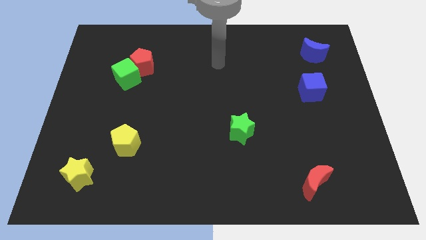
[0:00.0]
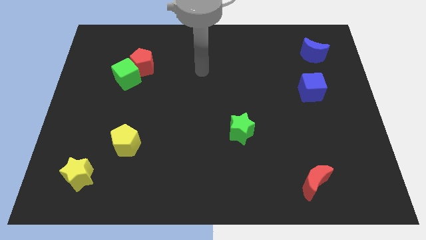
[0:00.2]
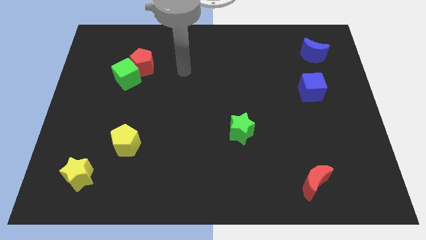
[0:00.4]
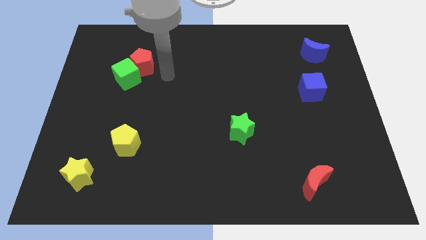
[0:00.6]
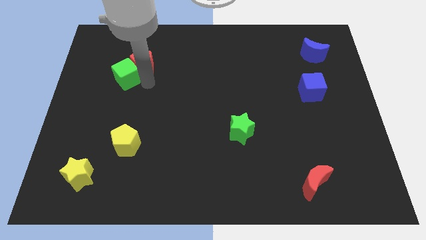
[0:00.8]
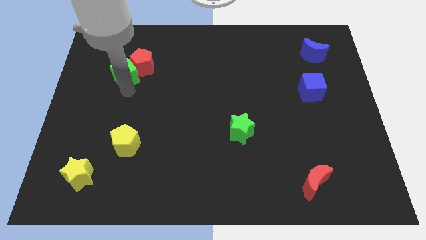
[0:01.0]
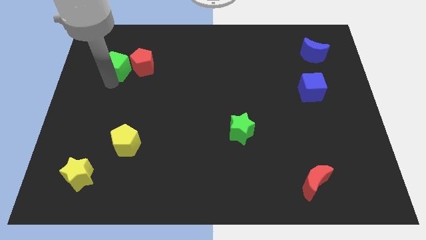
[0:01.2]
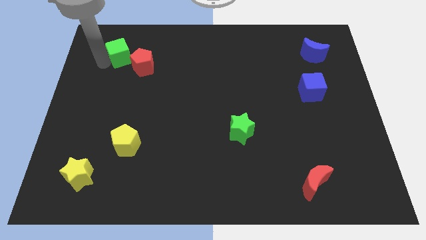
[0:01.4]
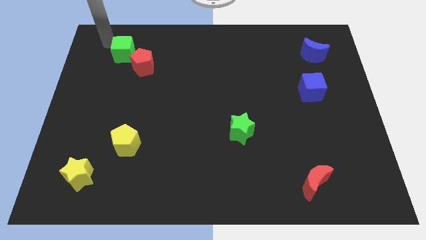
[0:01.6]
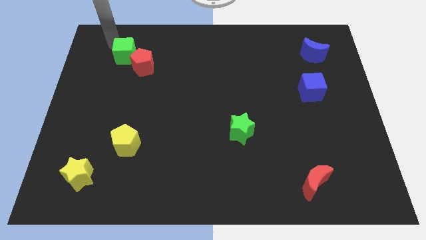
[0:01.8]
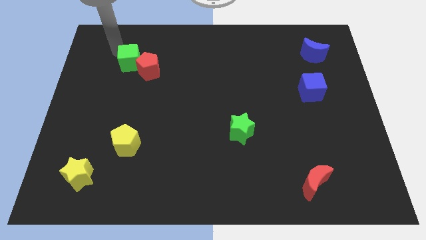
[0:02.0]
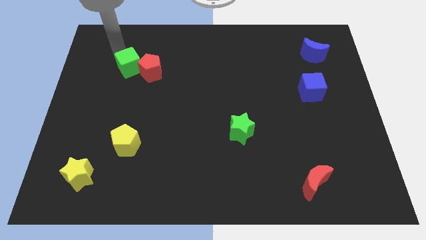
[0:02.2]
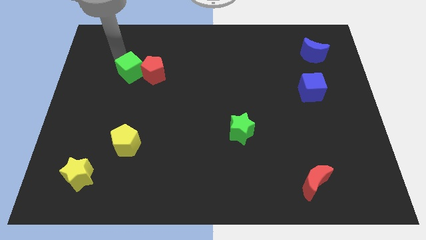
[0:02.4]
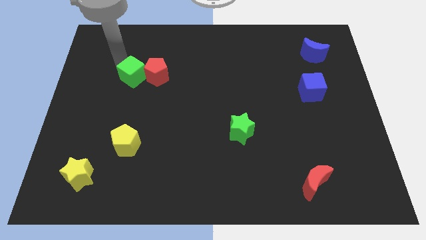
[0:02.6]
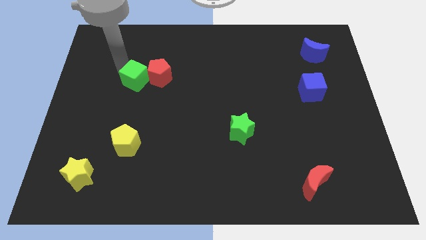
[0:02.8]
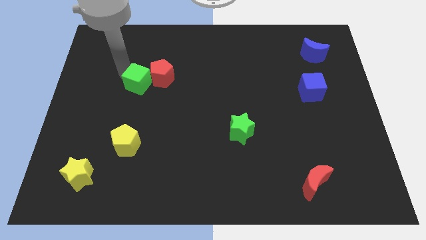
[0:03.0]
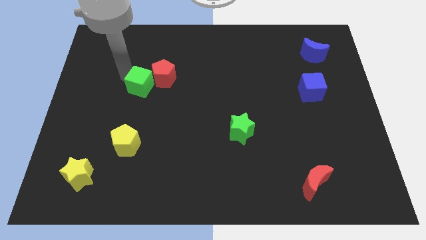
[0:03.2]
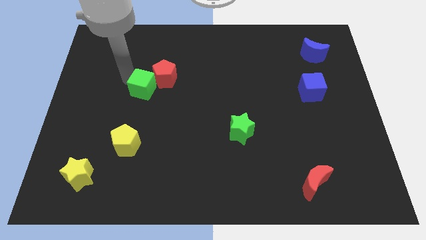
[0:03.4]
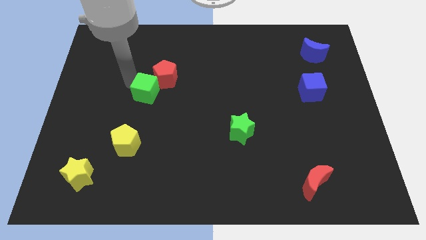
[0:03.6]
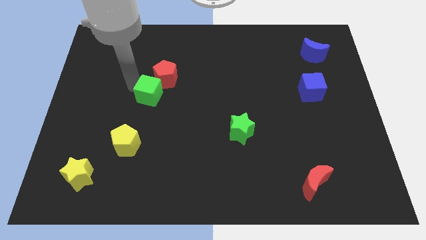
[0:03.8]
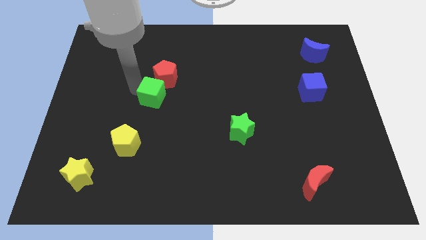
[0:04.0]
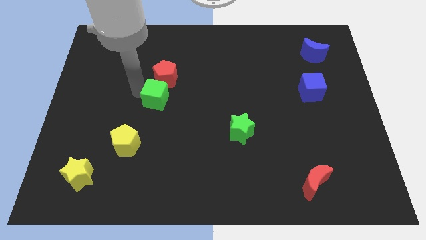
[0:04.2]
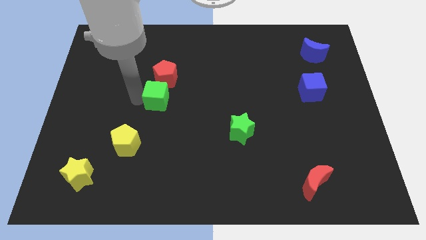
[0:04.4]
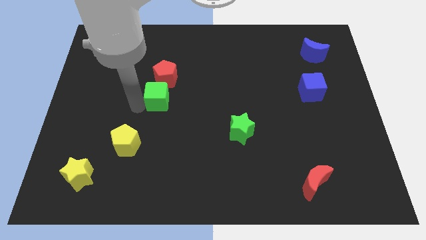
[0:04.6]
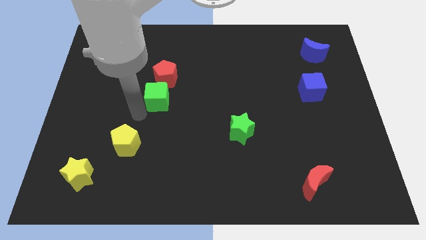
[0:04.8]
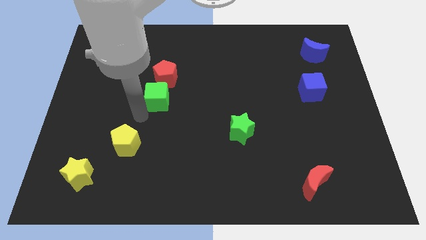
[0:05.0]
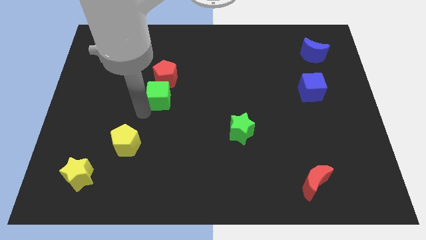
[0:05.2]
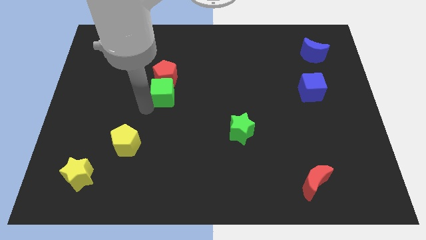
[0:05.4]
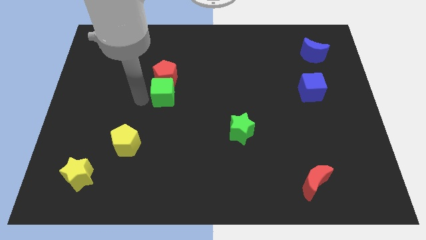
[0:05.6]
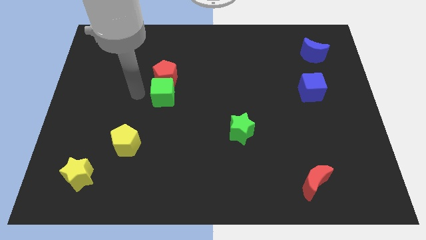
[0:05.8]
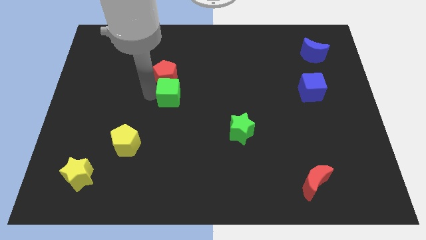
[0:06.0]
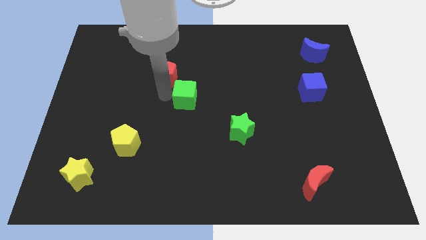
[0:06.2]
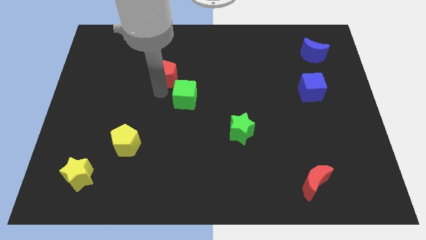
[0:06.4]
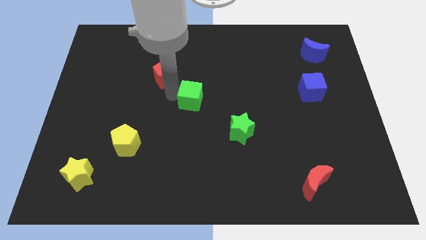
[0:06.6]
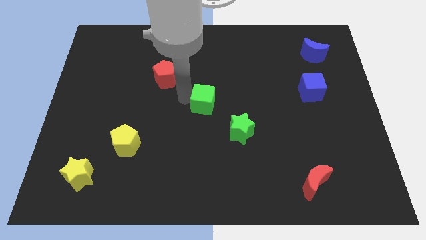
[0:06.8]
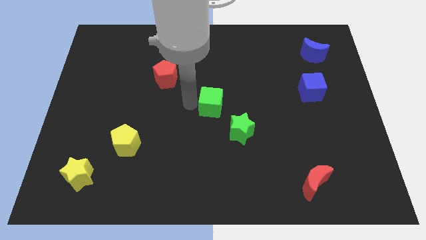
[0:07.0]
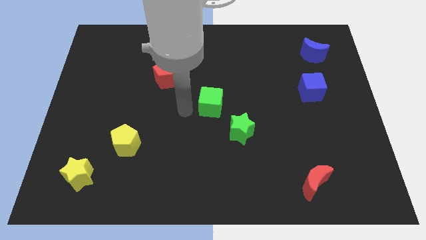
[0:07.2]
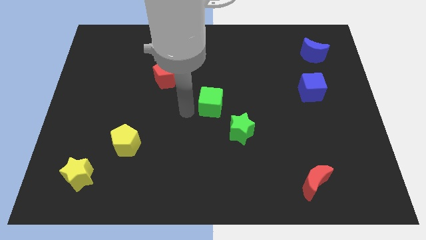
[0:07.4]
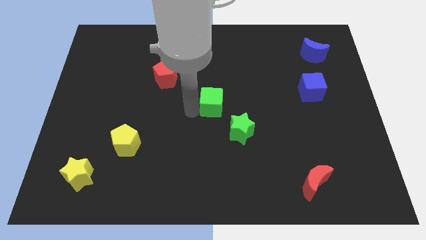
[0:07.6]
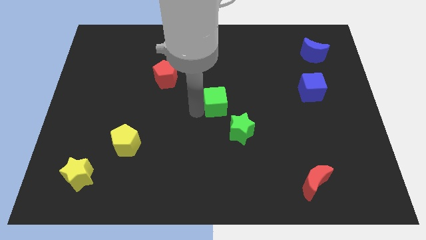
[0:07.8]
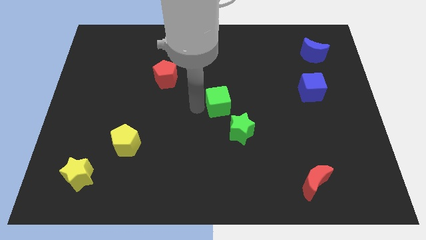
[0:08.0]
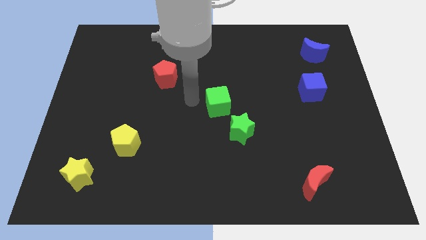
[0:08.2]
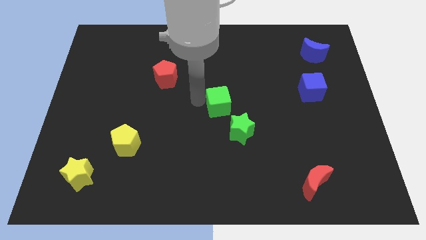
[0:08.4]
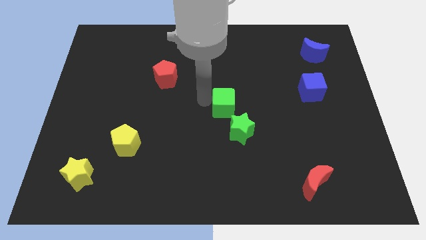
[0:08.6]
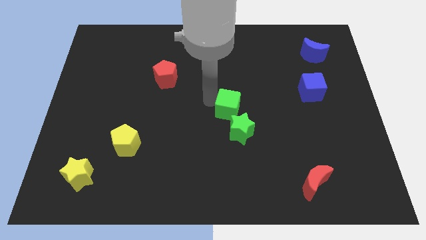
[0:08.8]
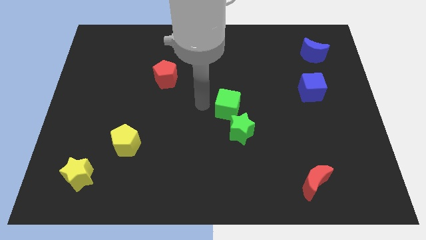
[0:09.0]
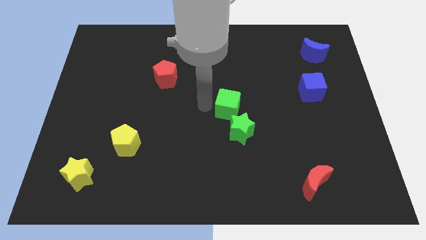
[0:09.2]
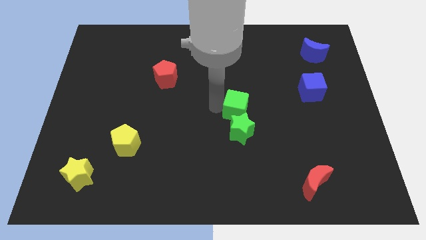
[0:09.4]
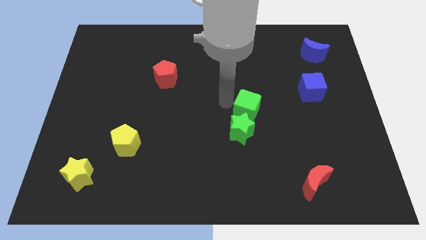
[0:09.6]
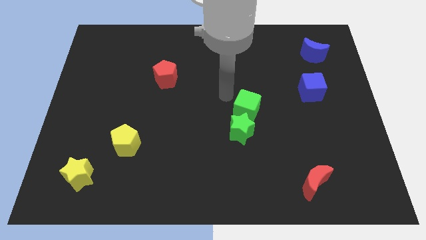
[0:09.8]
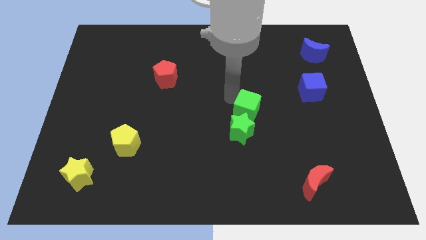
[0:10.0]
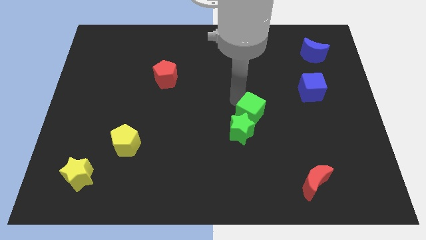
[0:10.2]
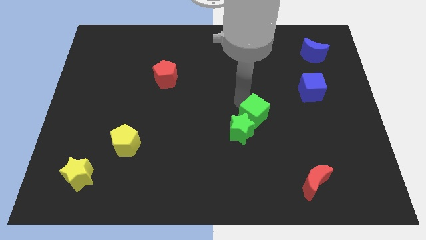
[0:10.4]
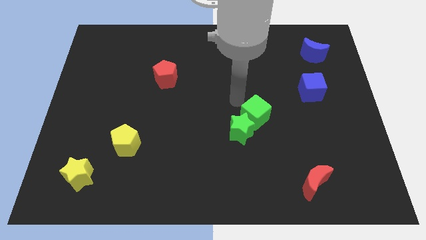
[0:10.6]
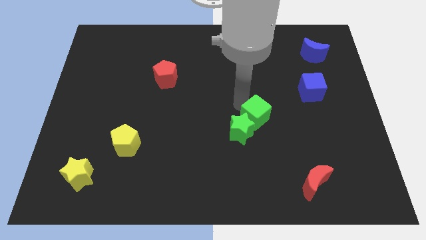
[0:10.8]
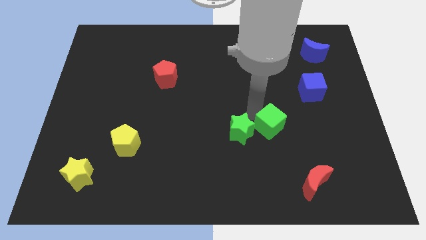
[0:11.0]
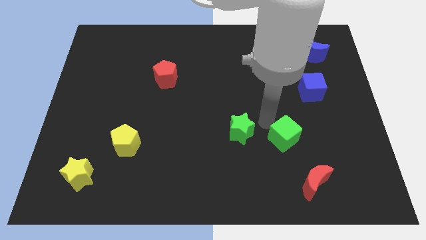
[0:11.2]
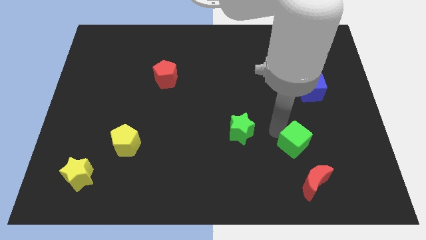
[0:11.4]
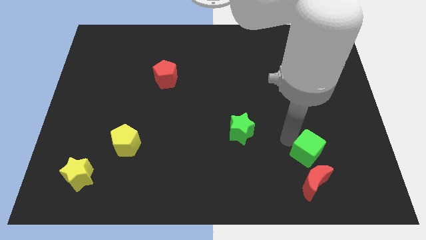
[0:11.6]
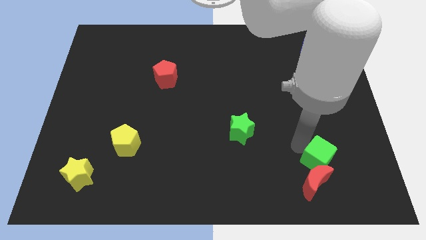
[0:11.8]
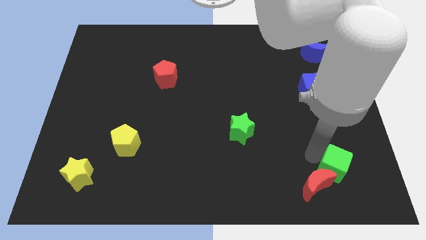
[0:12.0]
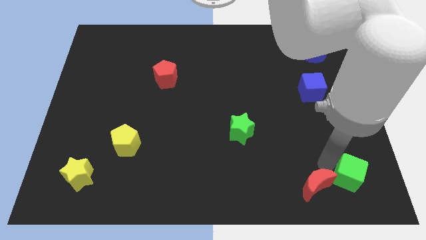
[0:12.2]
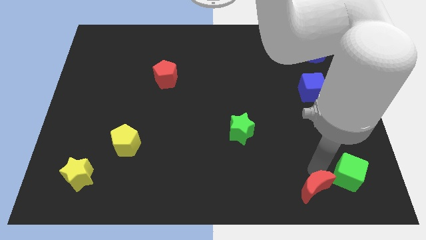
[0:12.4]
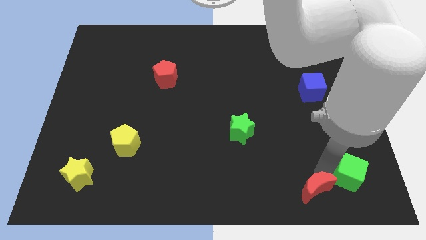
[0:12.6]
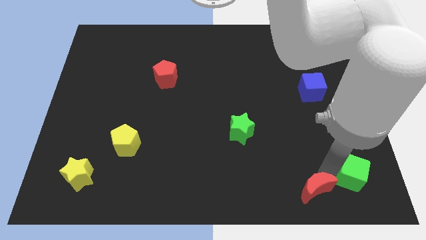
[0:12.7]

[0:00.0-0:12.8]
move the green cube to the bottom right of the board
